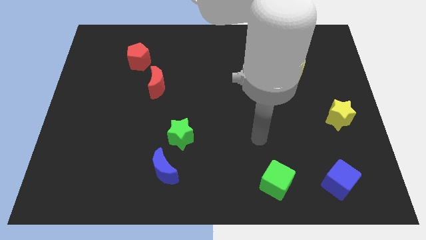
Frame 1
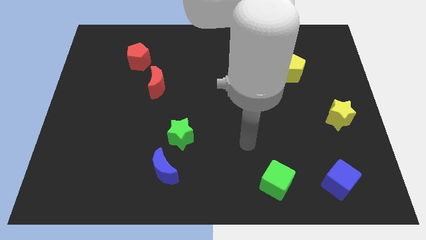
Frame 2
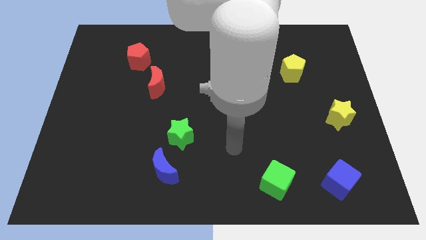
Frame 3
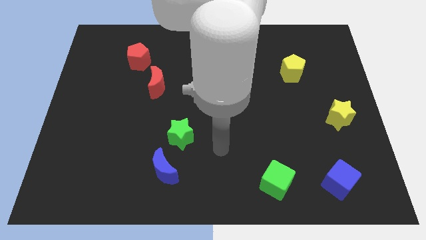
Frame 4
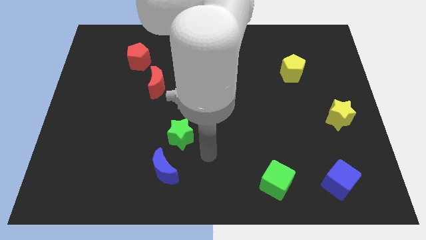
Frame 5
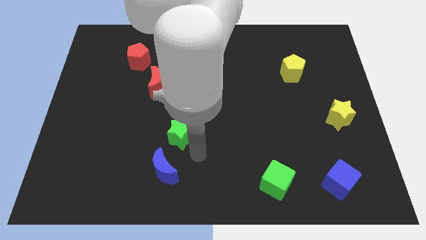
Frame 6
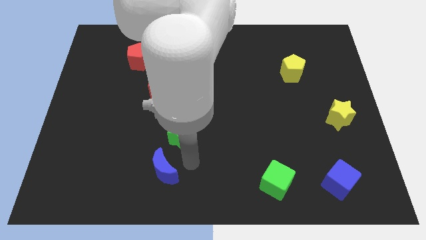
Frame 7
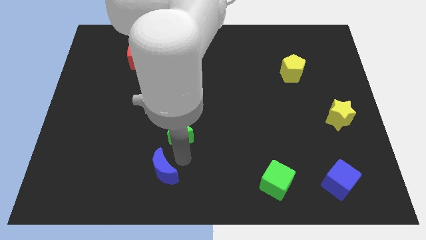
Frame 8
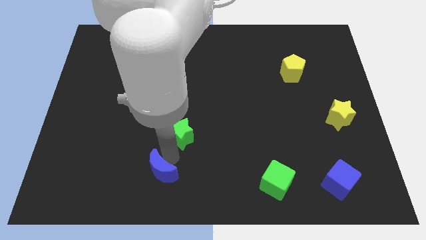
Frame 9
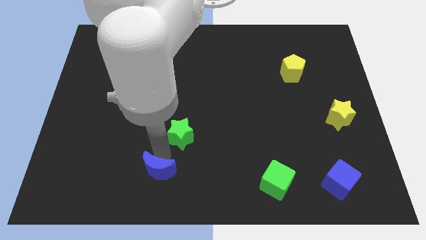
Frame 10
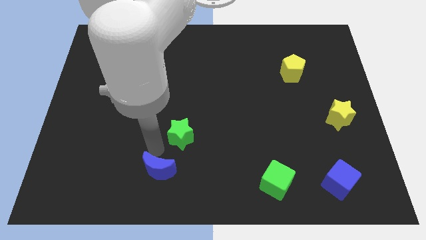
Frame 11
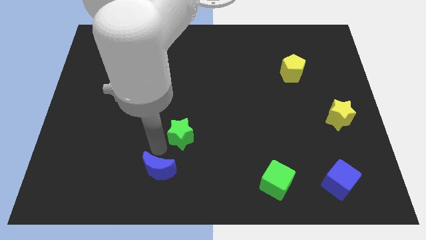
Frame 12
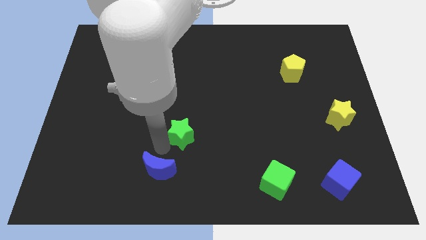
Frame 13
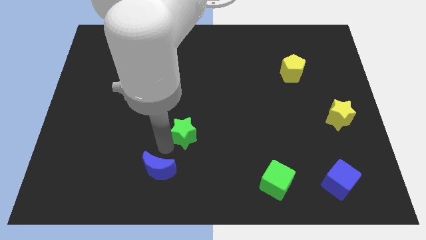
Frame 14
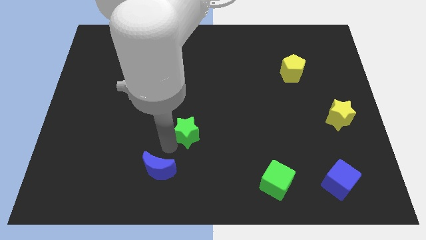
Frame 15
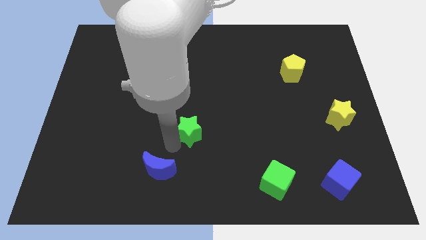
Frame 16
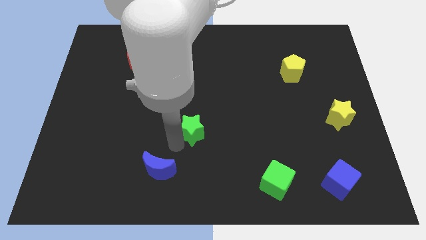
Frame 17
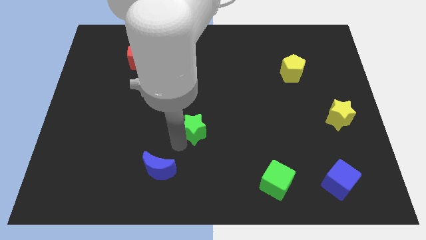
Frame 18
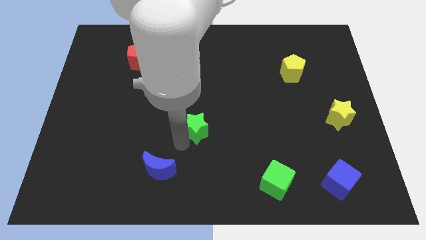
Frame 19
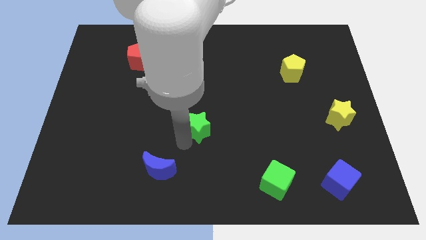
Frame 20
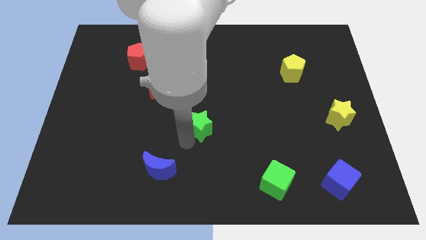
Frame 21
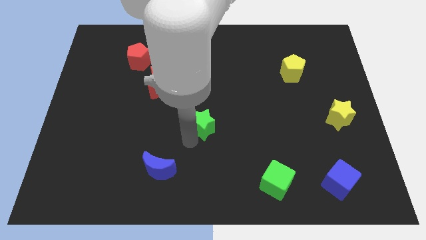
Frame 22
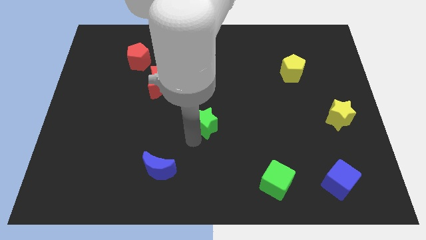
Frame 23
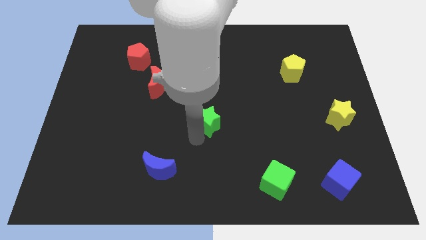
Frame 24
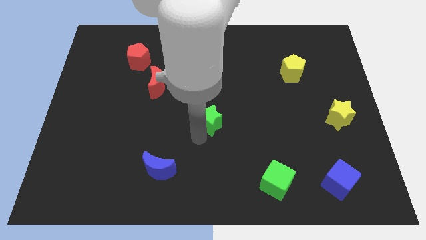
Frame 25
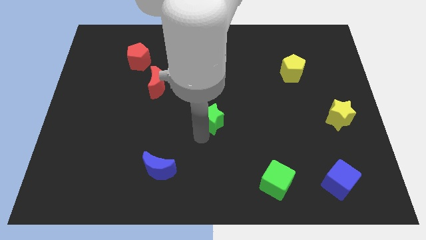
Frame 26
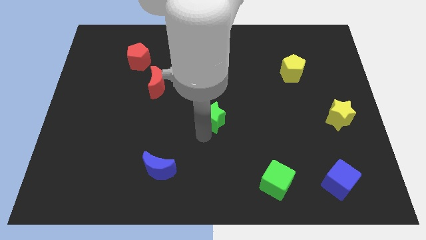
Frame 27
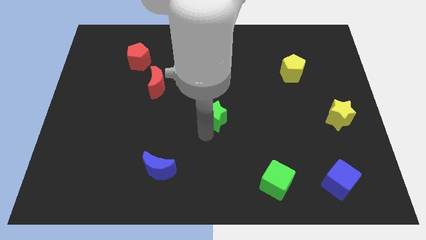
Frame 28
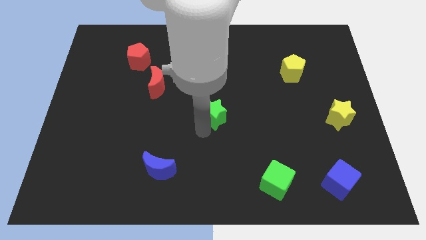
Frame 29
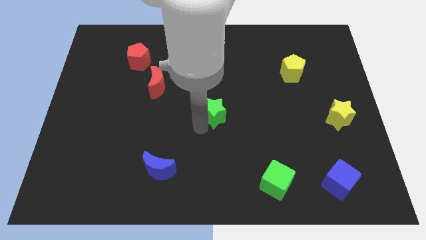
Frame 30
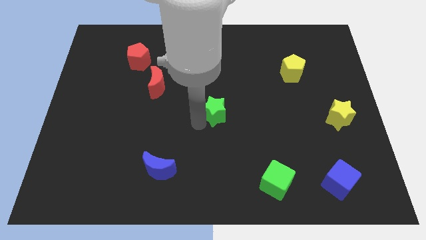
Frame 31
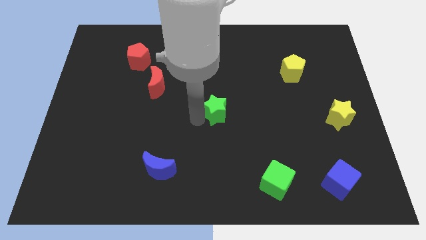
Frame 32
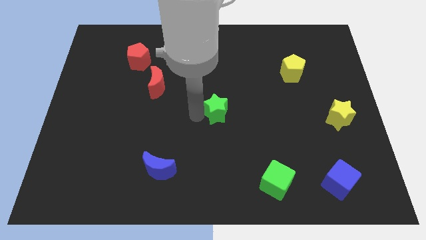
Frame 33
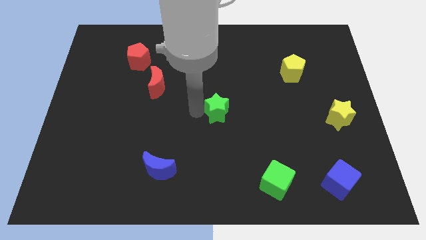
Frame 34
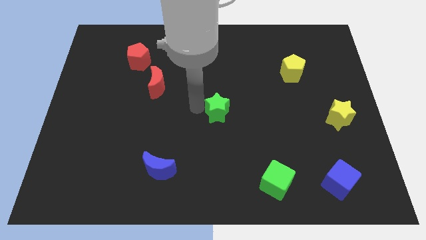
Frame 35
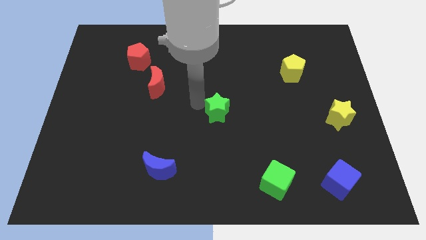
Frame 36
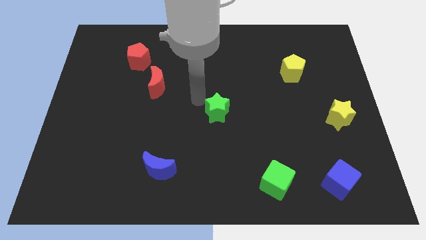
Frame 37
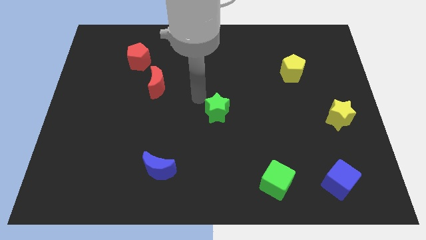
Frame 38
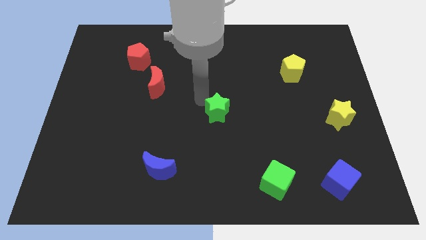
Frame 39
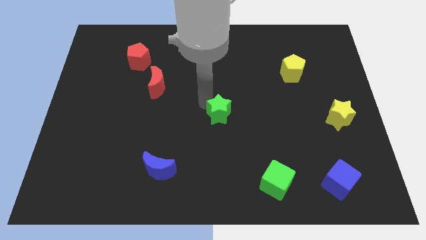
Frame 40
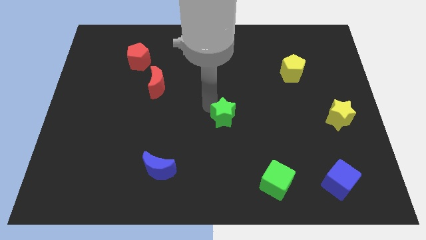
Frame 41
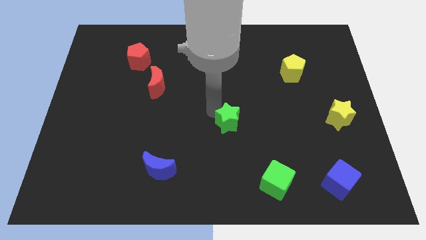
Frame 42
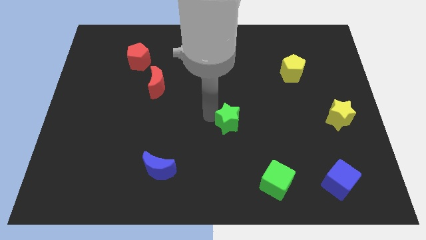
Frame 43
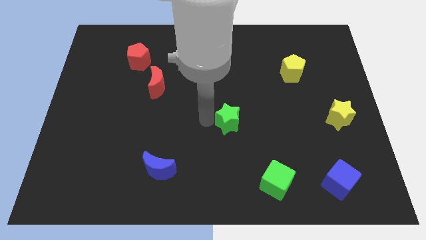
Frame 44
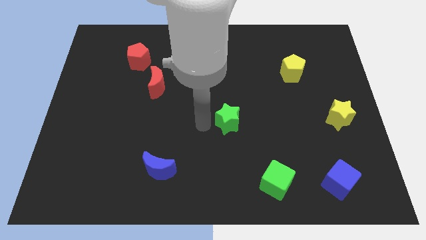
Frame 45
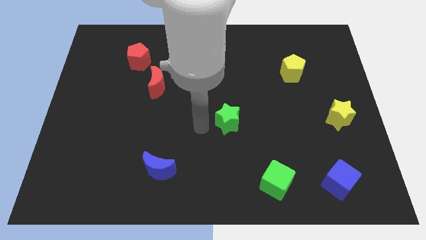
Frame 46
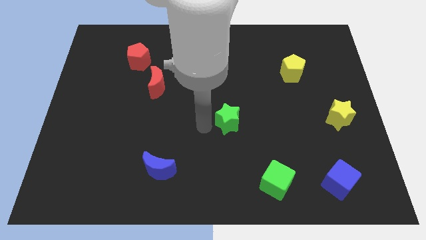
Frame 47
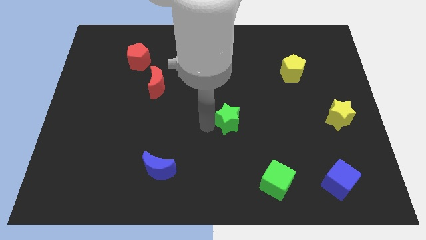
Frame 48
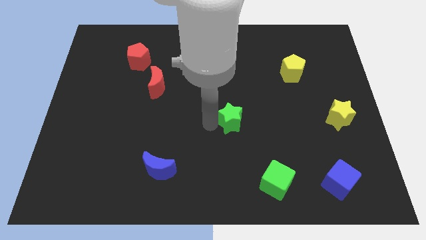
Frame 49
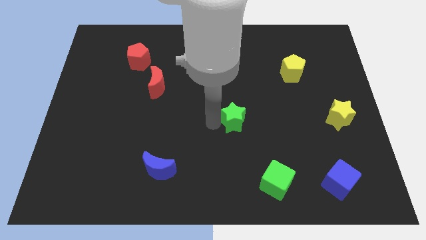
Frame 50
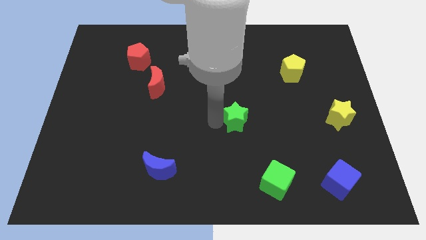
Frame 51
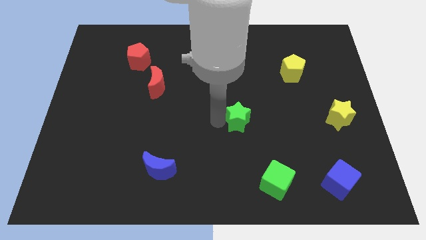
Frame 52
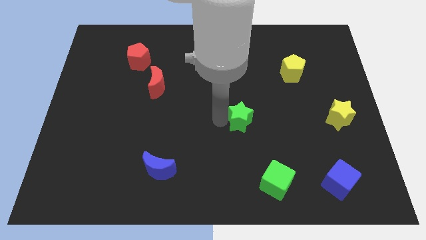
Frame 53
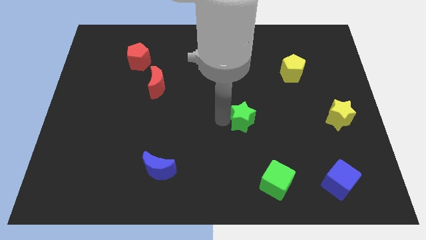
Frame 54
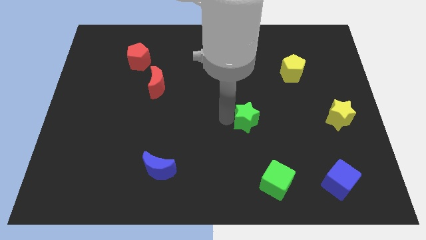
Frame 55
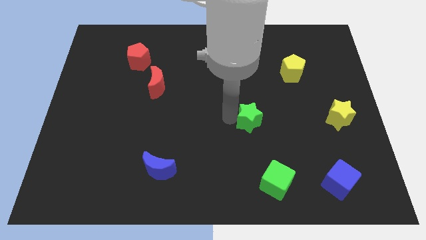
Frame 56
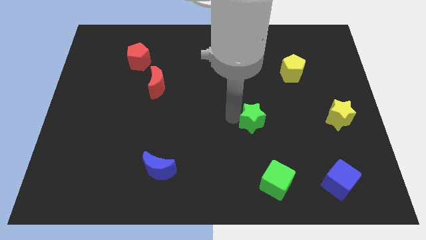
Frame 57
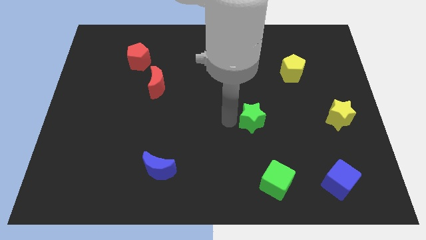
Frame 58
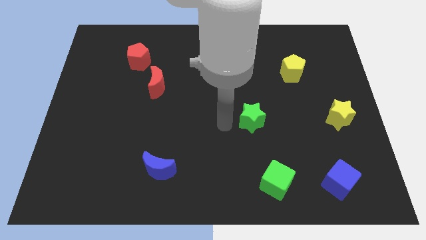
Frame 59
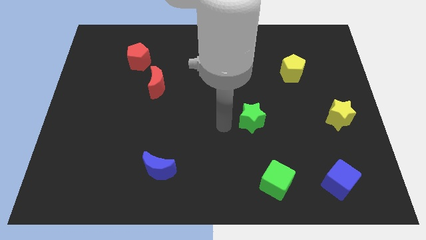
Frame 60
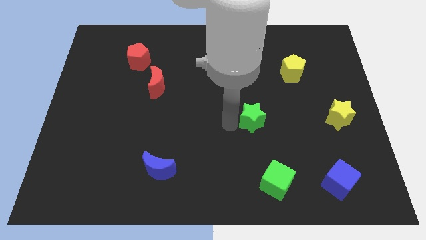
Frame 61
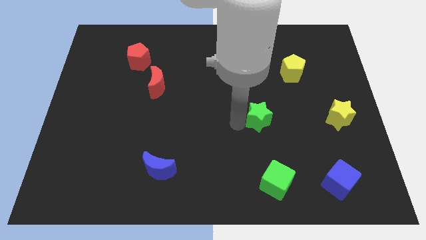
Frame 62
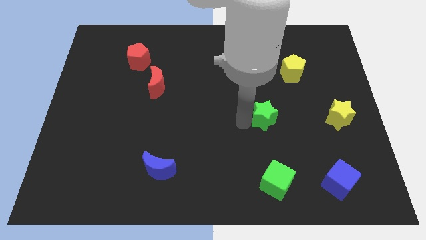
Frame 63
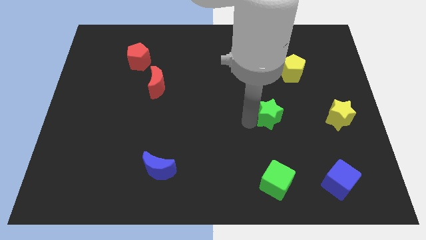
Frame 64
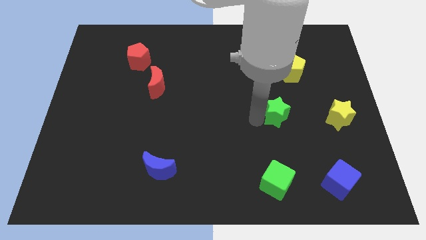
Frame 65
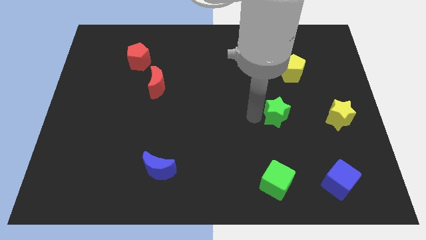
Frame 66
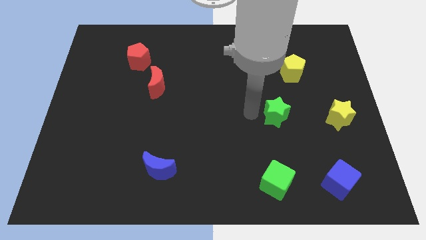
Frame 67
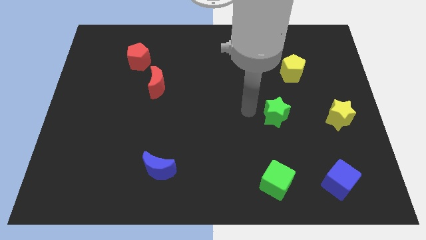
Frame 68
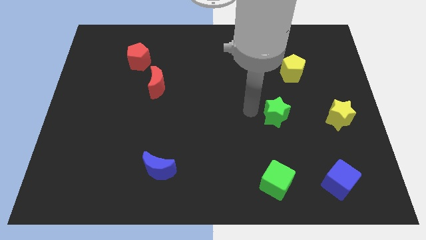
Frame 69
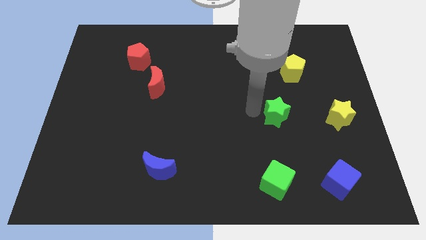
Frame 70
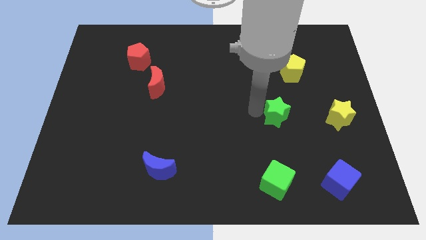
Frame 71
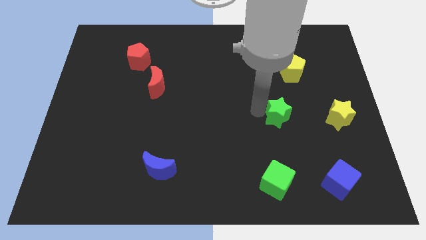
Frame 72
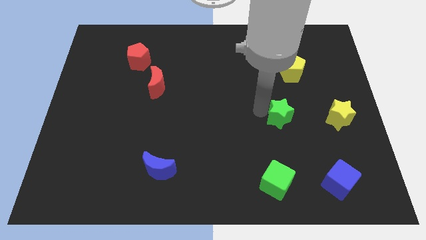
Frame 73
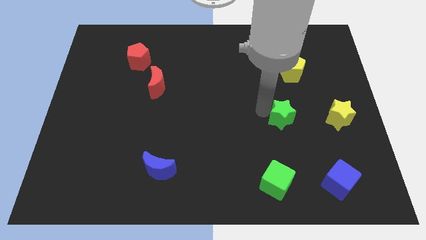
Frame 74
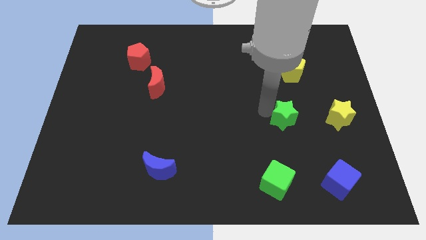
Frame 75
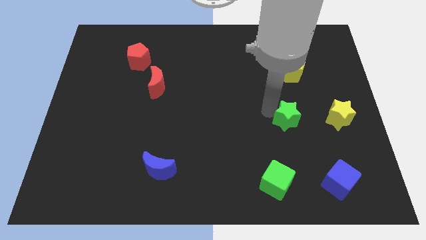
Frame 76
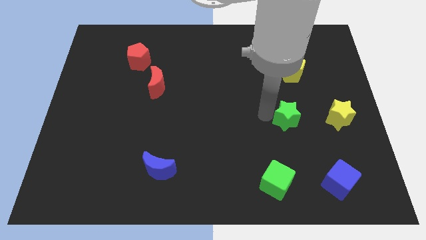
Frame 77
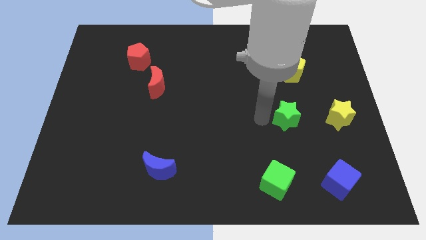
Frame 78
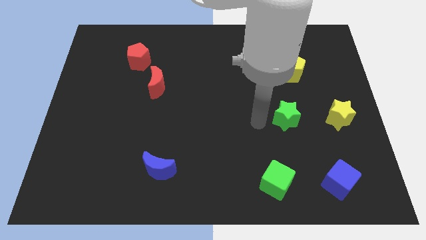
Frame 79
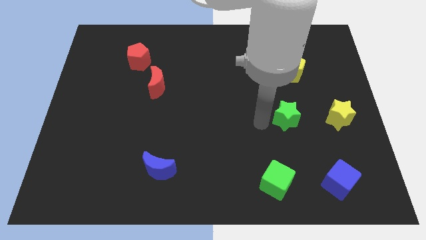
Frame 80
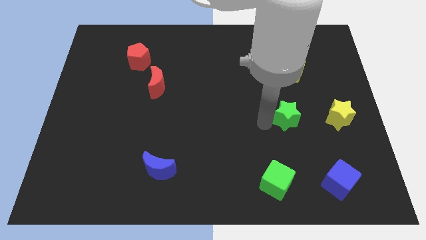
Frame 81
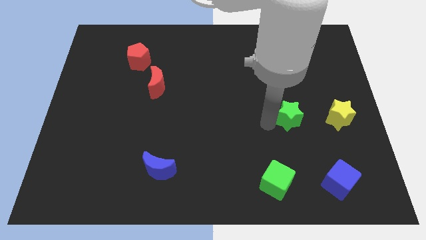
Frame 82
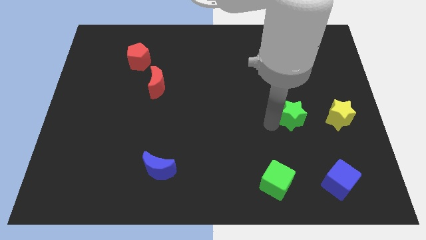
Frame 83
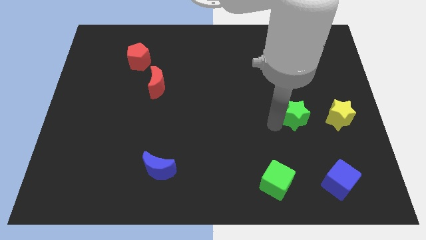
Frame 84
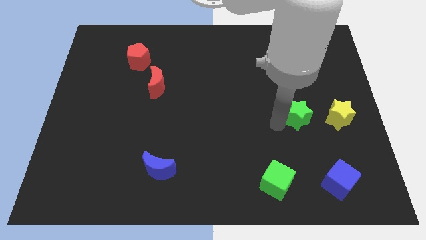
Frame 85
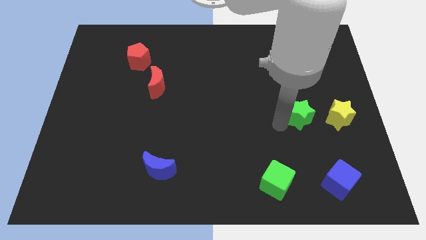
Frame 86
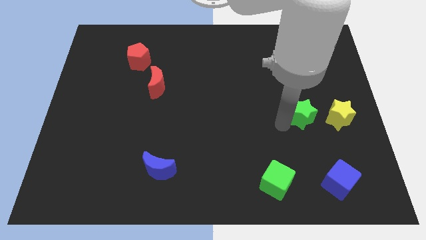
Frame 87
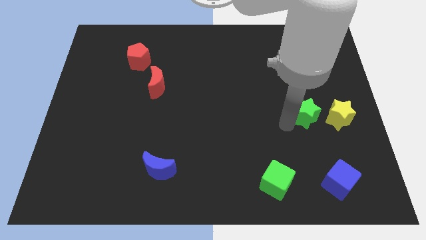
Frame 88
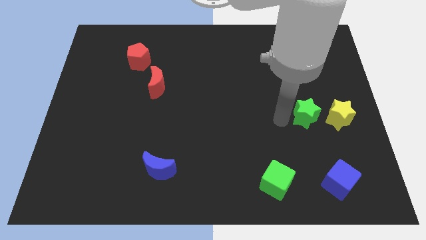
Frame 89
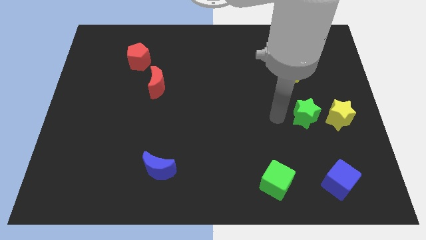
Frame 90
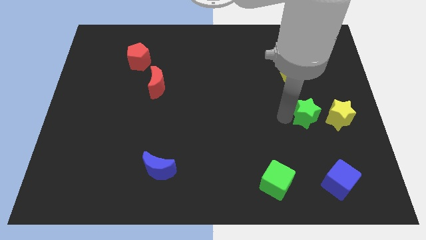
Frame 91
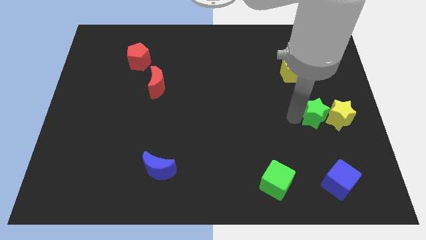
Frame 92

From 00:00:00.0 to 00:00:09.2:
move the green star next to the yellow star
